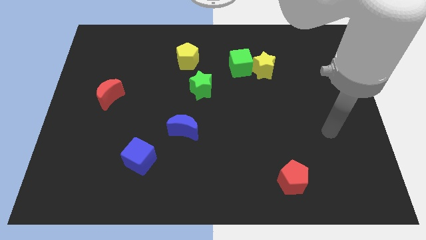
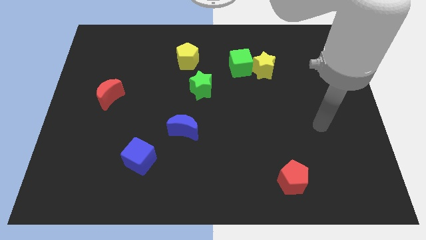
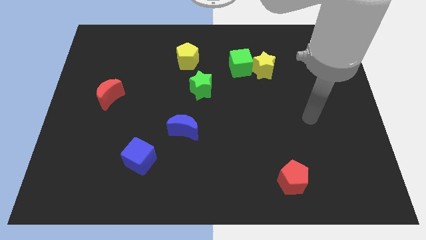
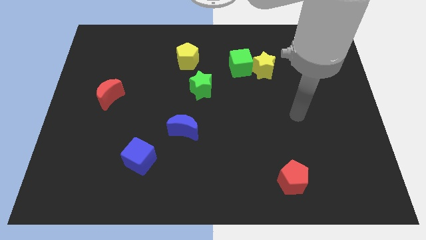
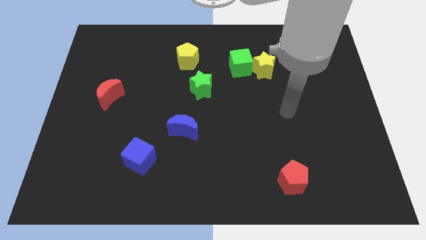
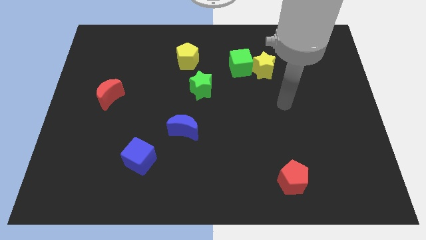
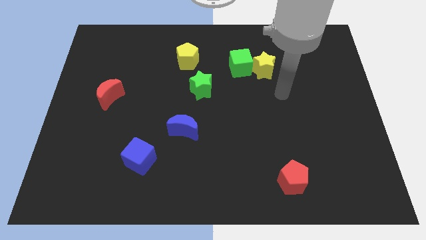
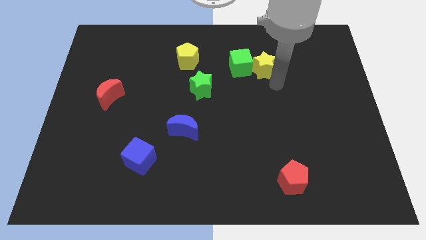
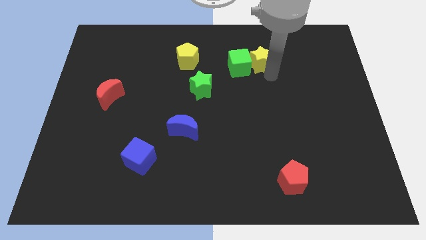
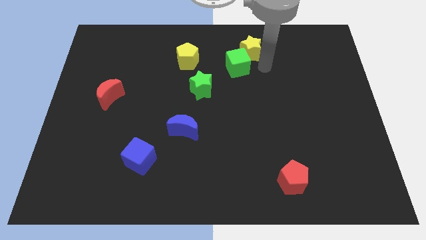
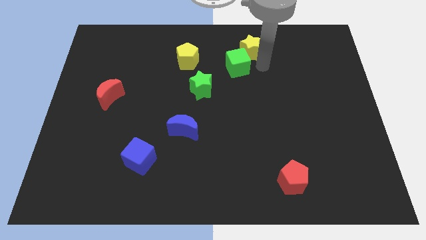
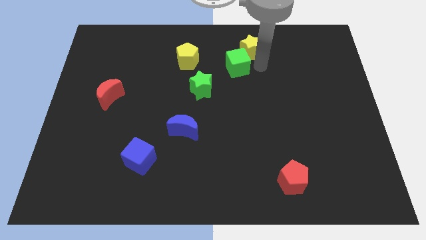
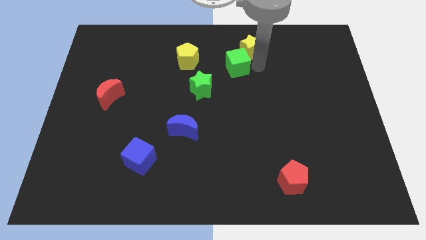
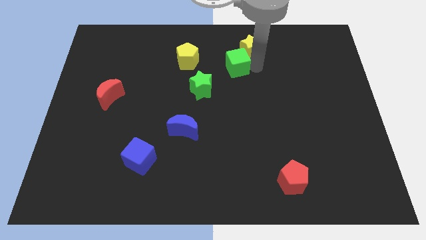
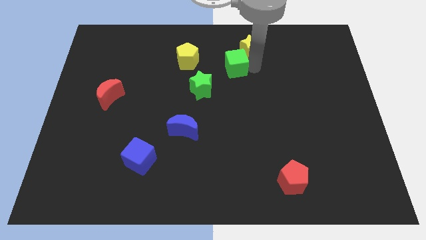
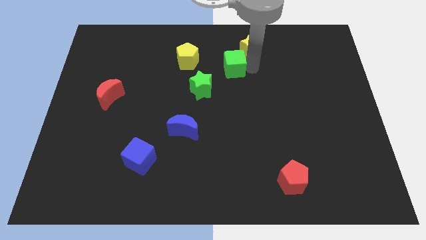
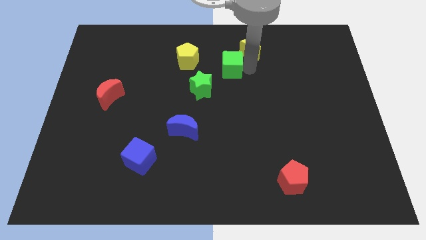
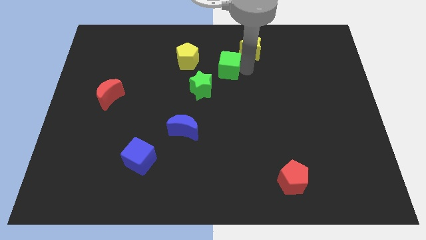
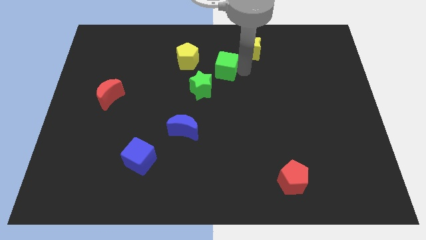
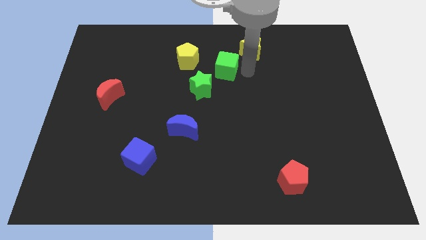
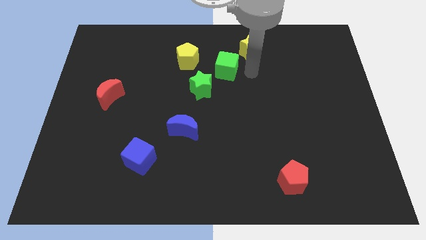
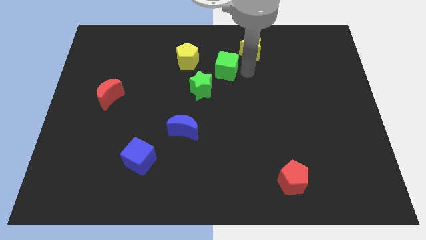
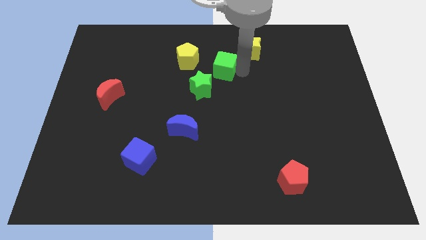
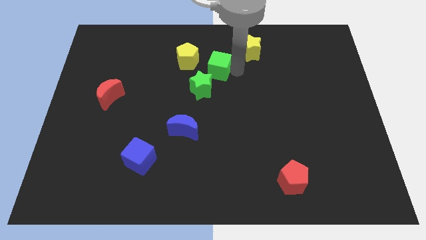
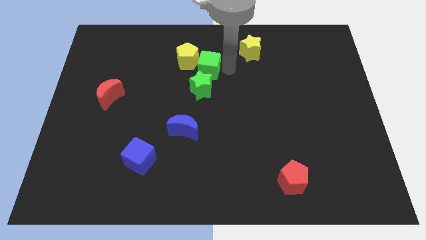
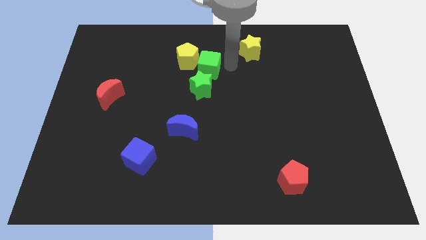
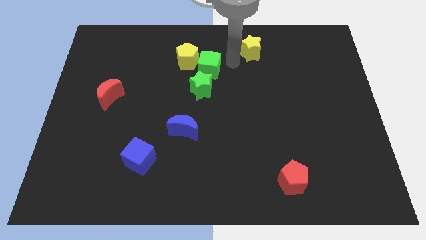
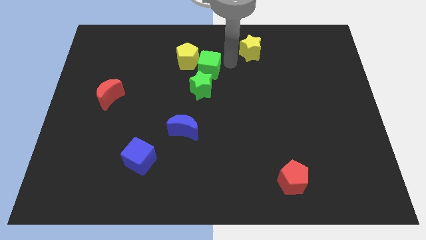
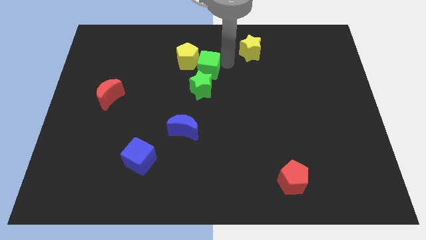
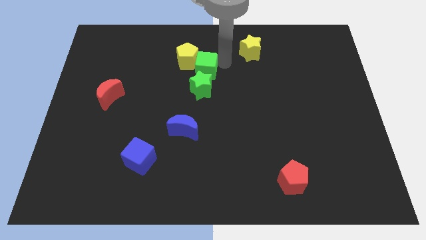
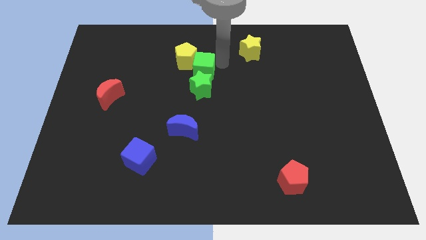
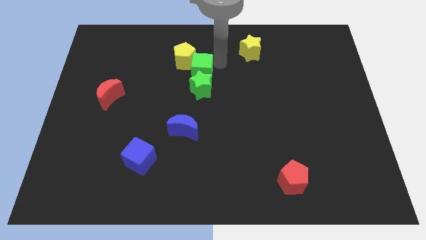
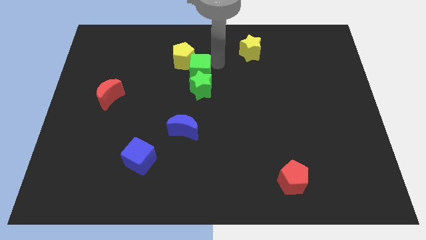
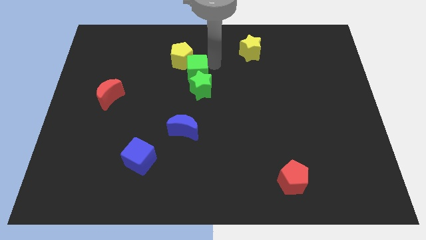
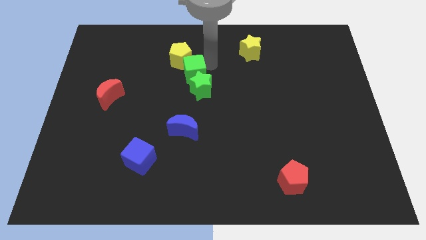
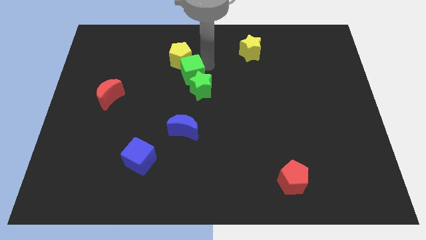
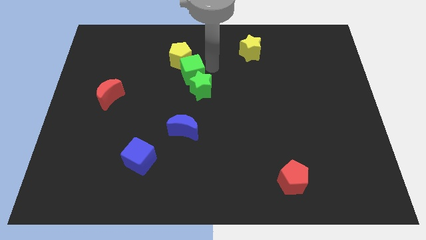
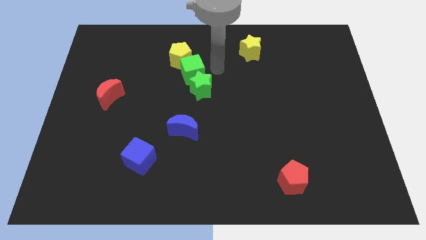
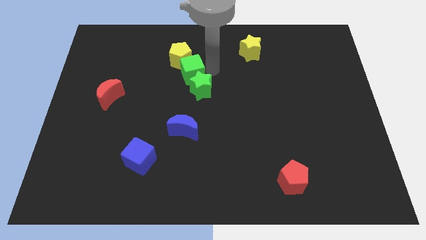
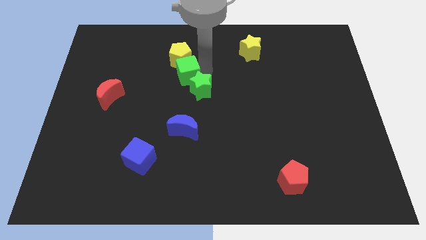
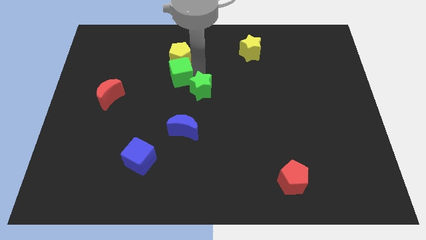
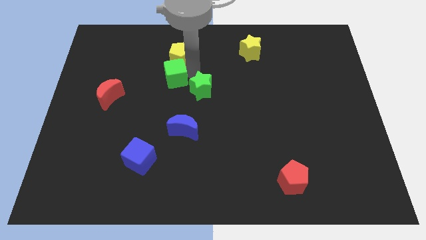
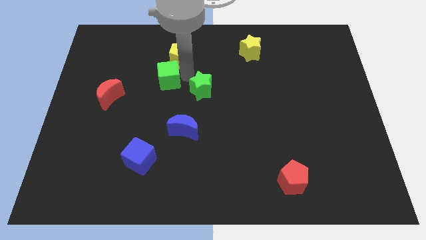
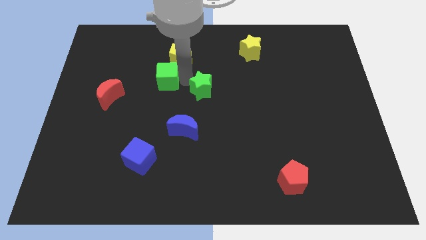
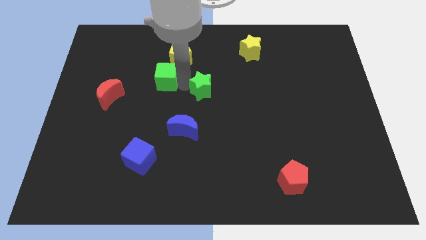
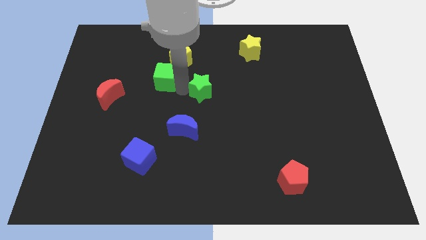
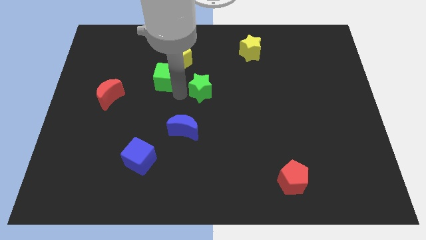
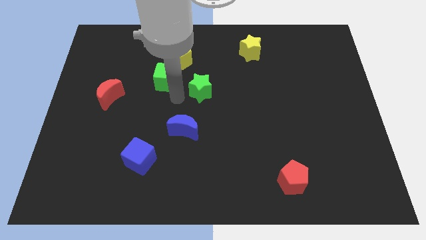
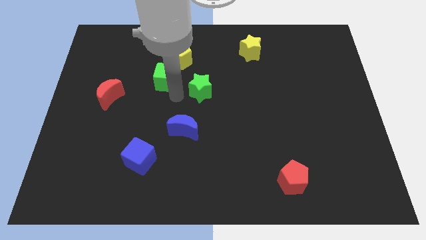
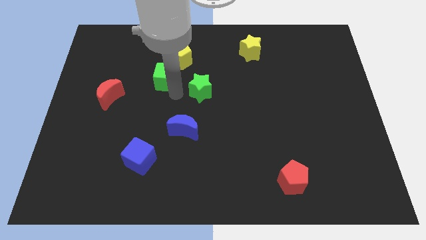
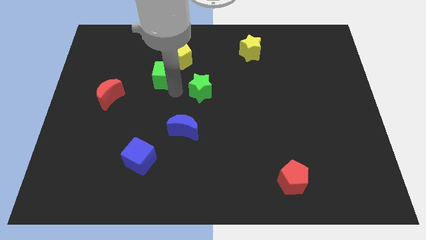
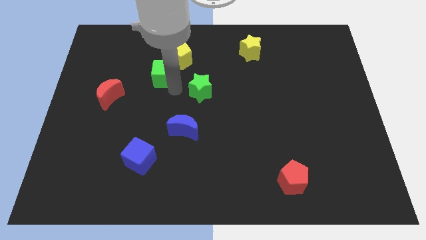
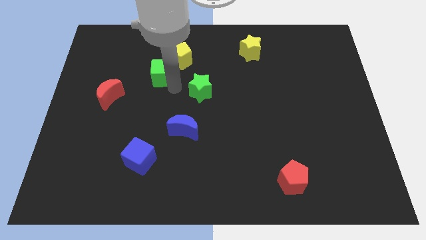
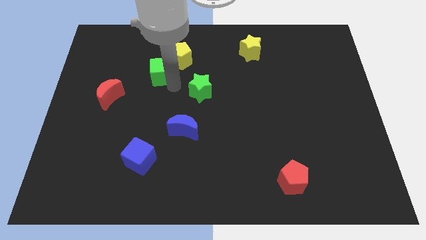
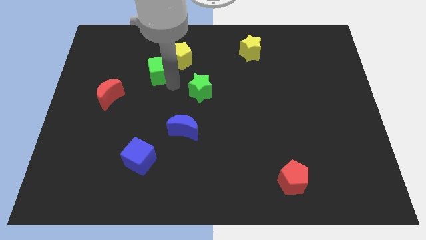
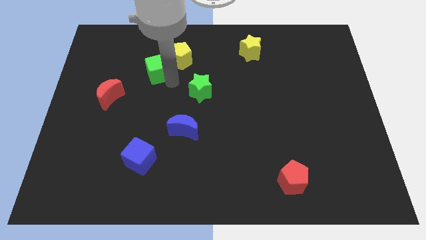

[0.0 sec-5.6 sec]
push the green cube just left of the yellow pentagon

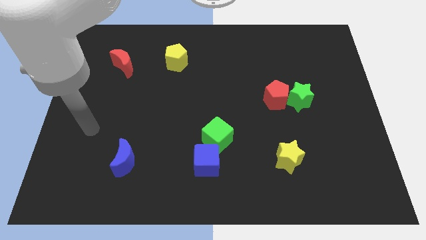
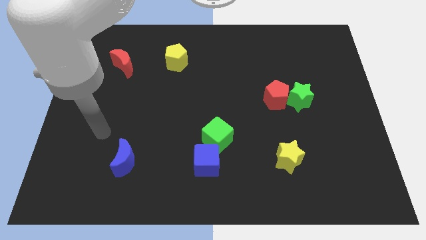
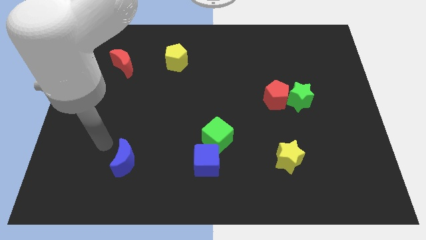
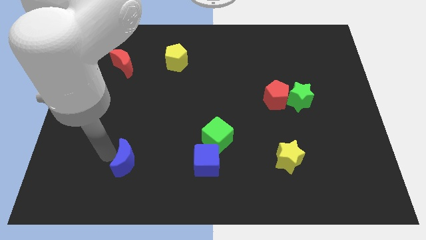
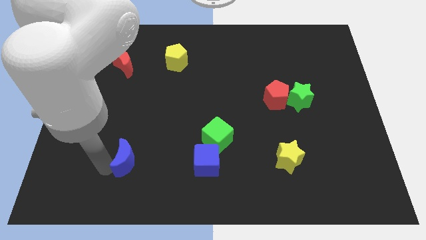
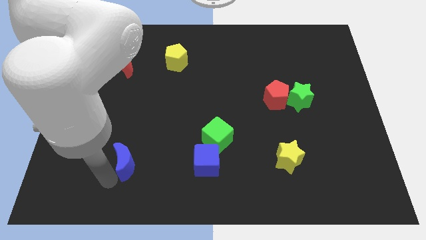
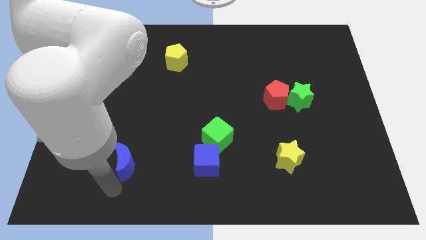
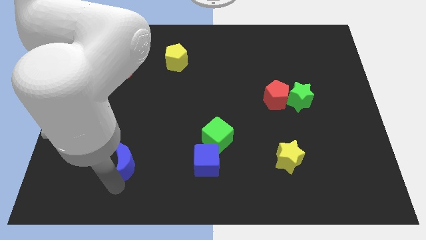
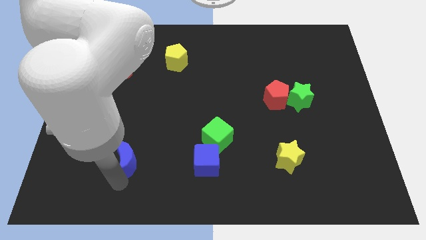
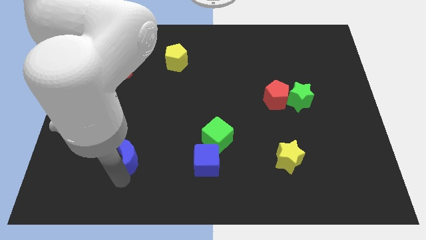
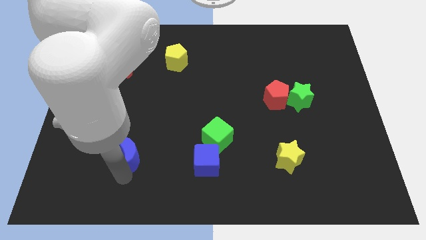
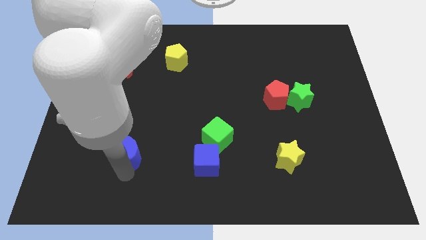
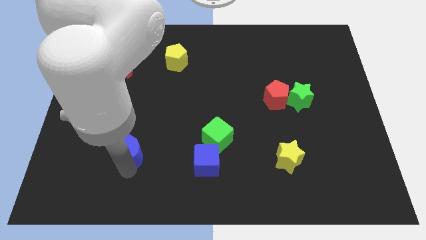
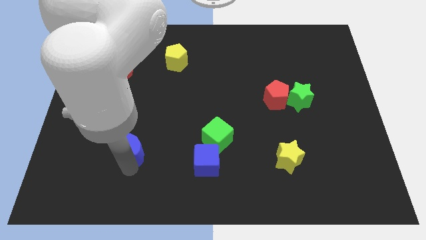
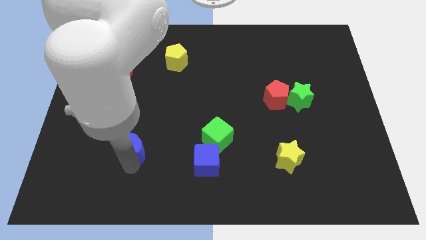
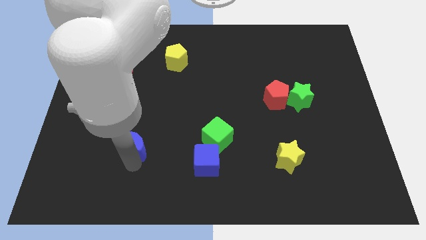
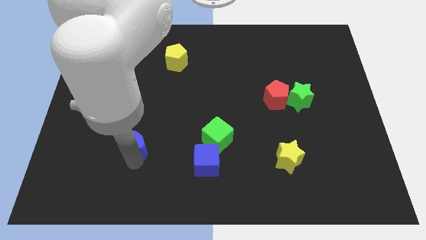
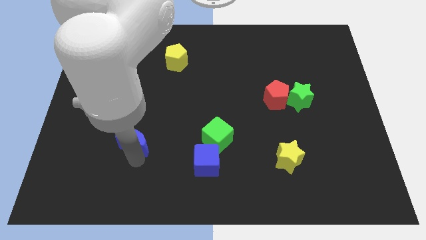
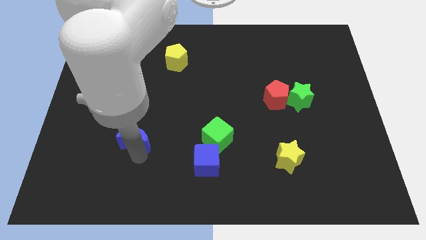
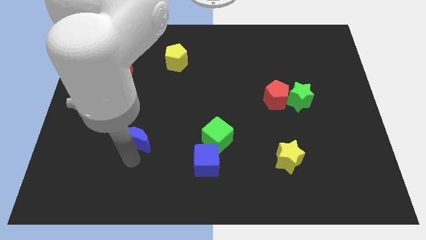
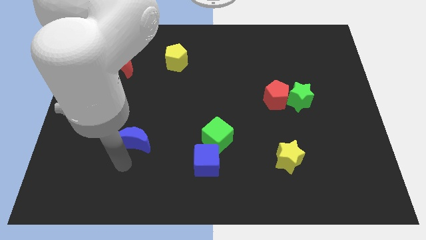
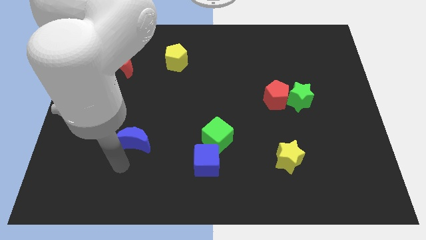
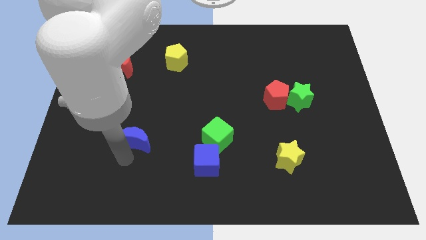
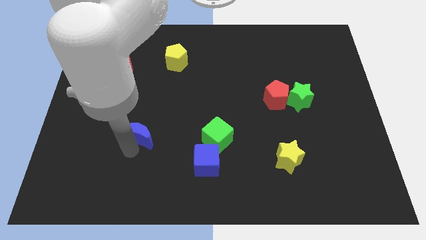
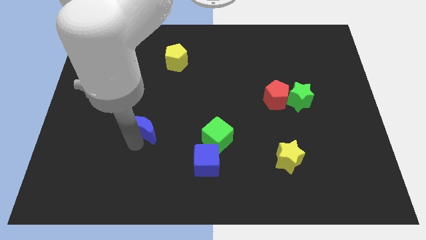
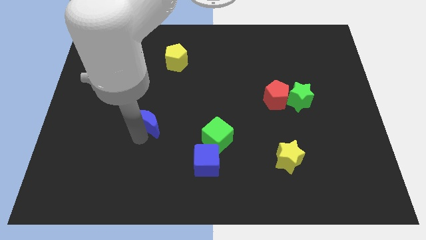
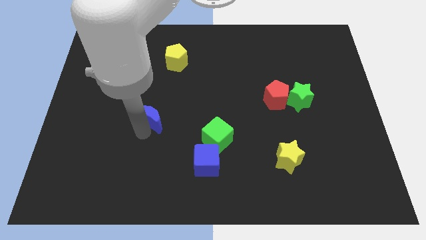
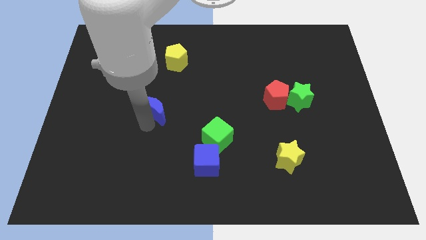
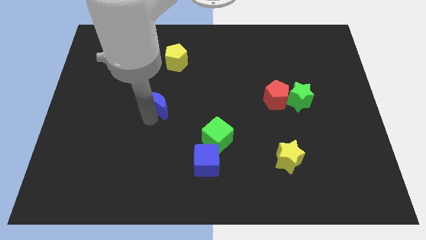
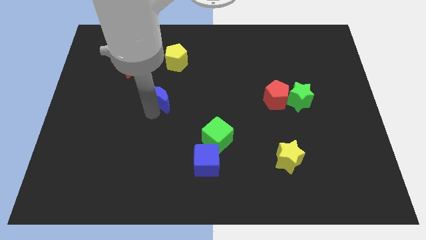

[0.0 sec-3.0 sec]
push the blue moon to the bottom side of the yellow pentagon
